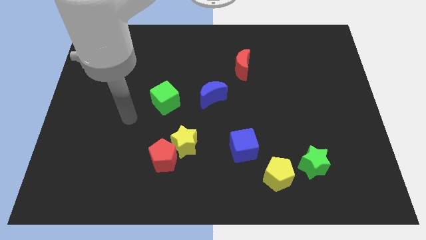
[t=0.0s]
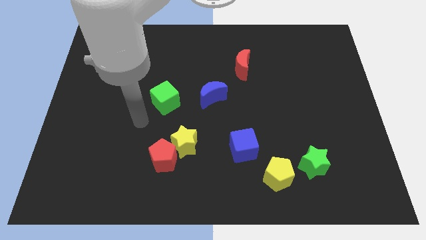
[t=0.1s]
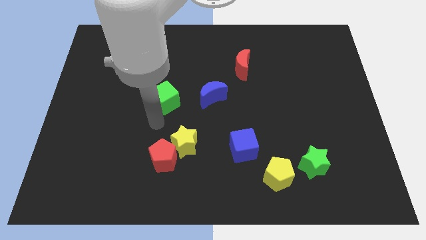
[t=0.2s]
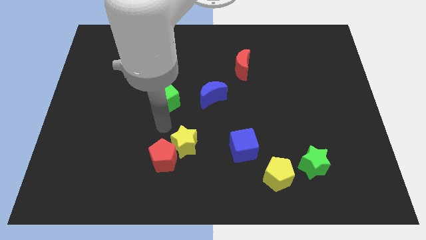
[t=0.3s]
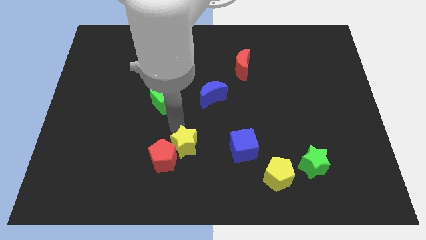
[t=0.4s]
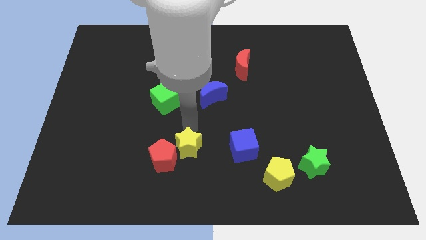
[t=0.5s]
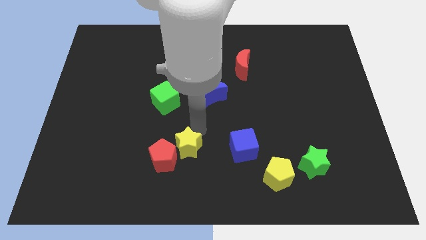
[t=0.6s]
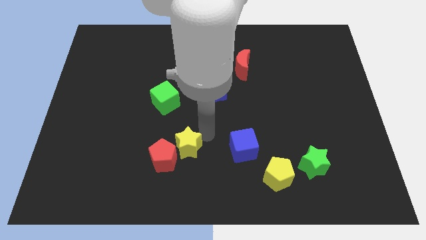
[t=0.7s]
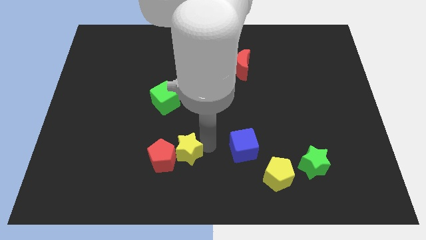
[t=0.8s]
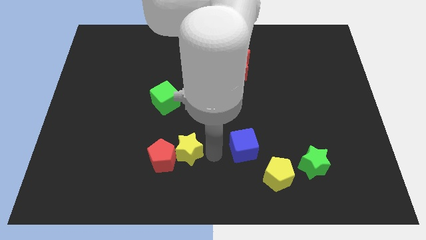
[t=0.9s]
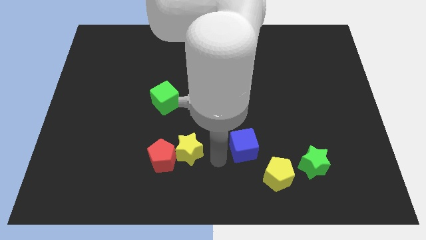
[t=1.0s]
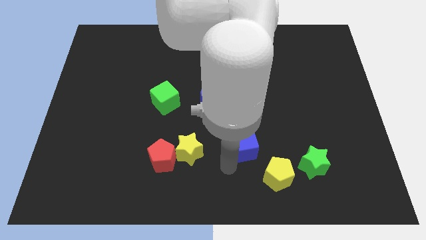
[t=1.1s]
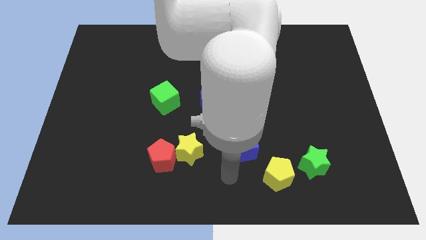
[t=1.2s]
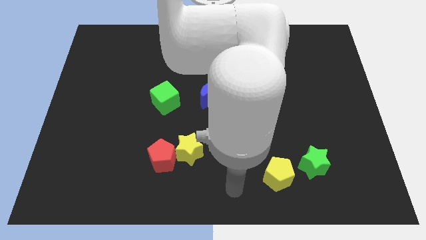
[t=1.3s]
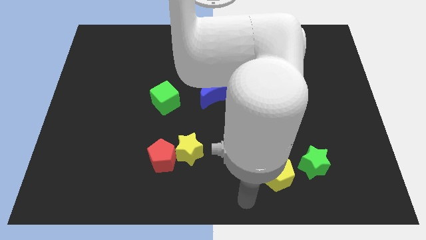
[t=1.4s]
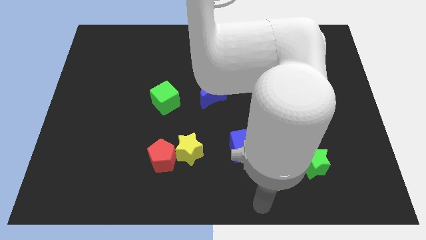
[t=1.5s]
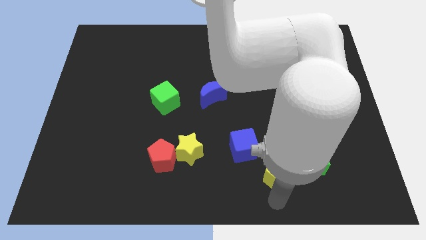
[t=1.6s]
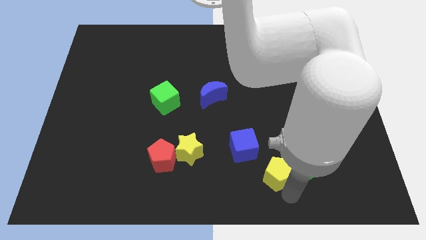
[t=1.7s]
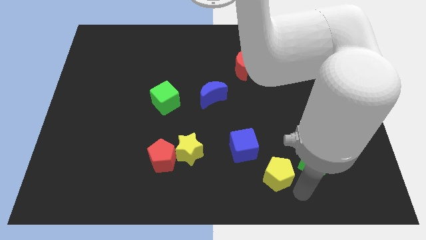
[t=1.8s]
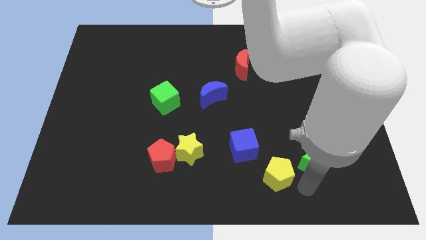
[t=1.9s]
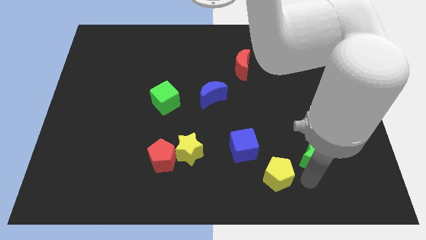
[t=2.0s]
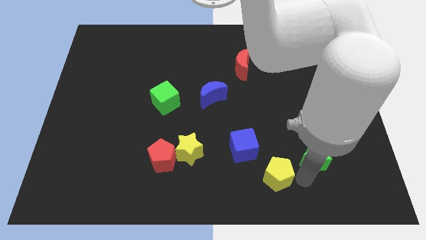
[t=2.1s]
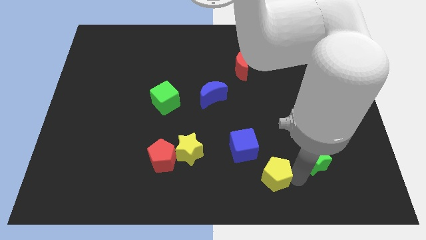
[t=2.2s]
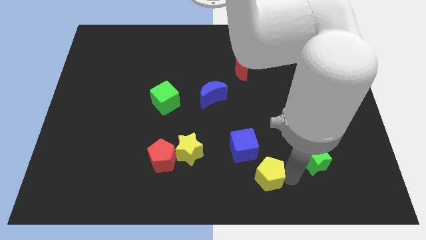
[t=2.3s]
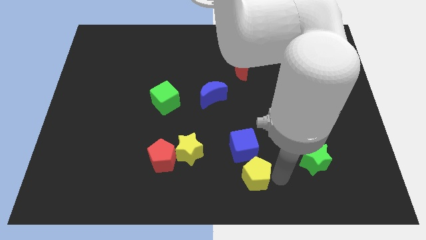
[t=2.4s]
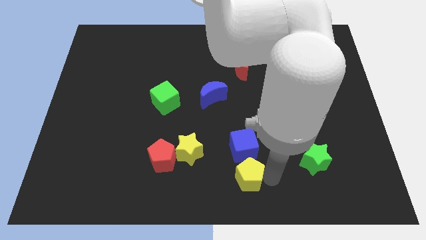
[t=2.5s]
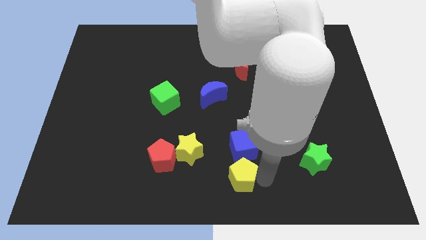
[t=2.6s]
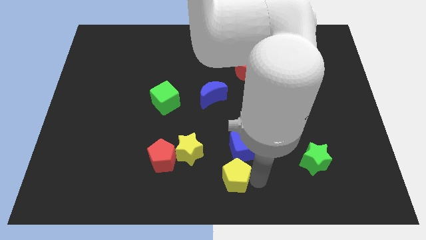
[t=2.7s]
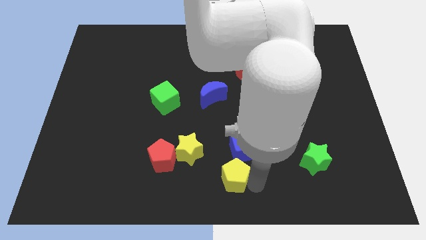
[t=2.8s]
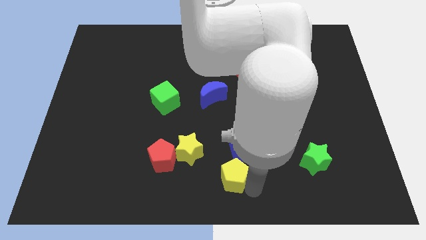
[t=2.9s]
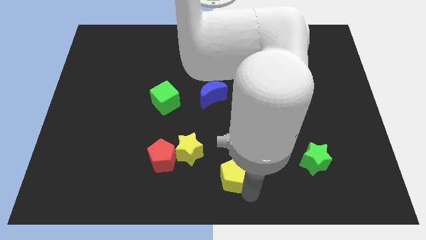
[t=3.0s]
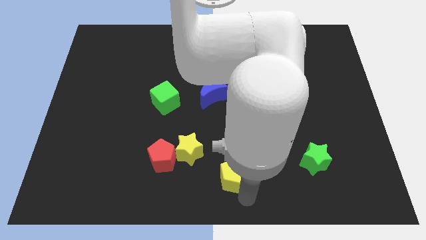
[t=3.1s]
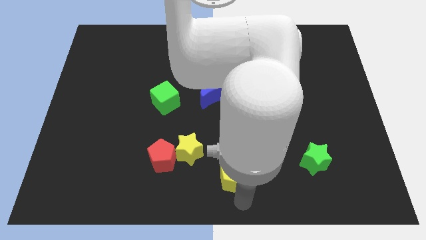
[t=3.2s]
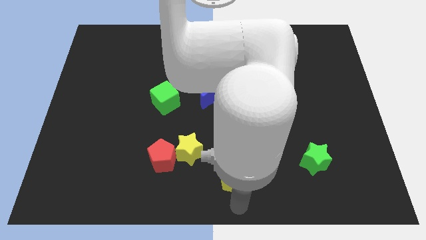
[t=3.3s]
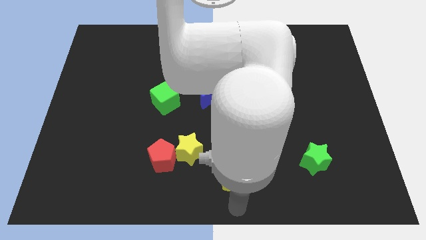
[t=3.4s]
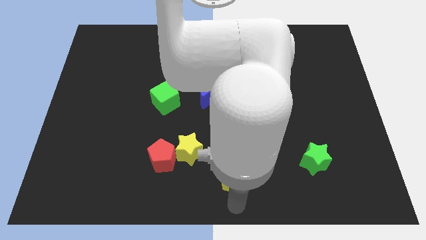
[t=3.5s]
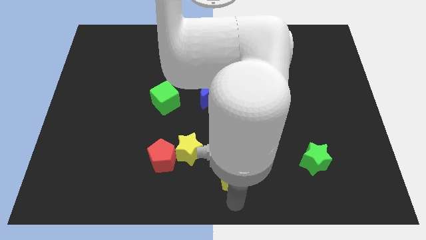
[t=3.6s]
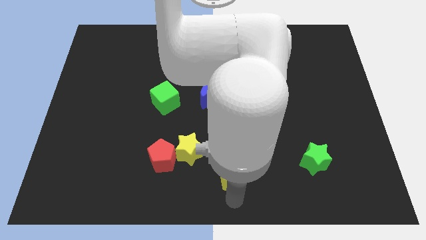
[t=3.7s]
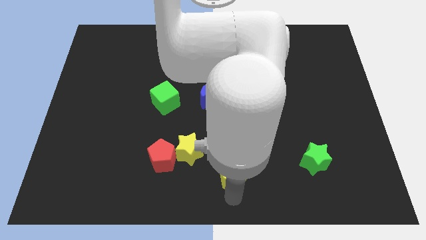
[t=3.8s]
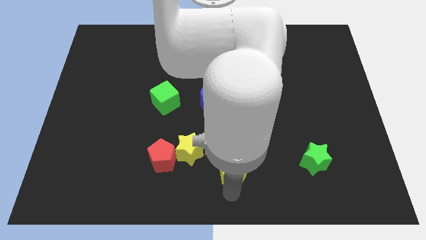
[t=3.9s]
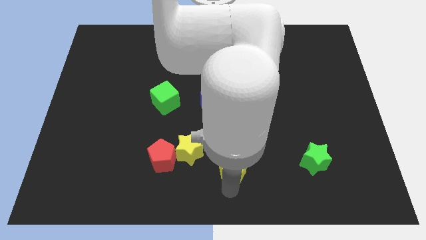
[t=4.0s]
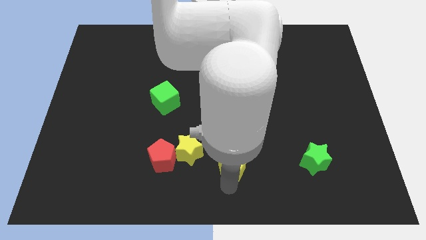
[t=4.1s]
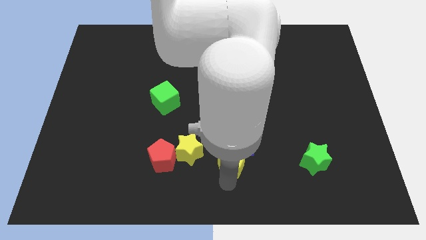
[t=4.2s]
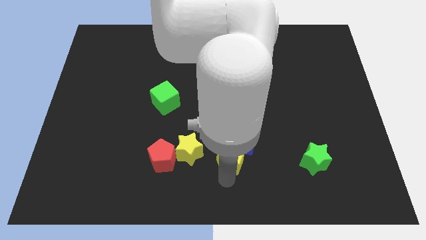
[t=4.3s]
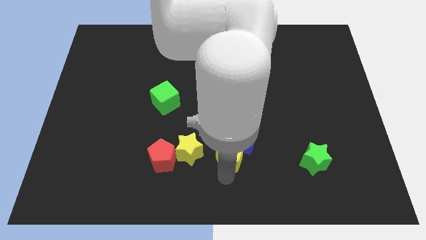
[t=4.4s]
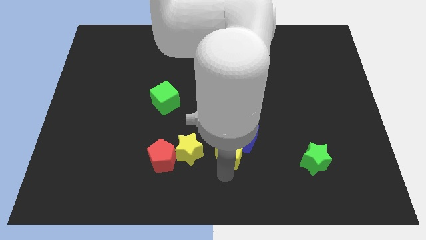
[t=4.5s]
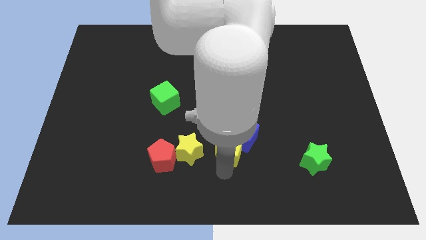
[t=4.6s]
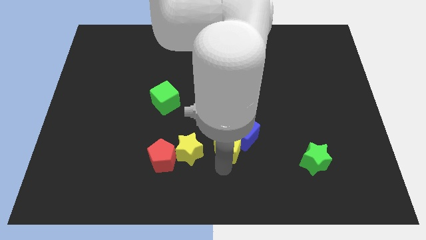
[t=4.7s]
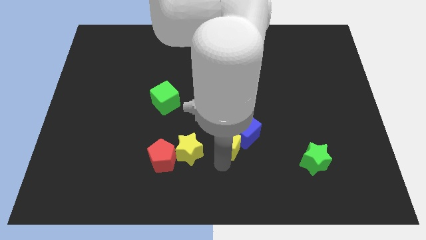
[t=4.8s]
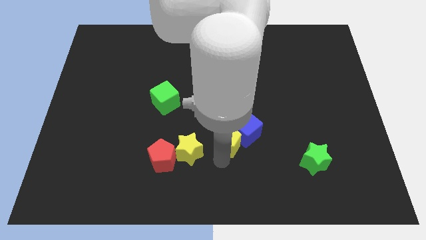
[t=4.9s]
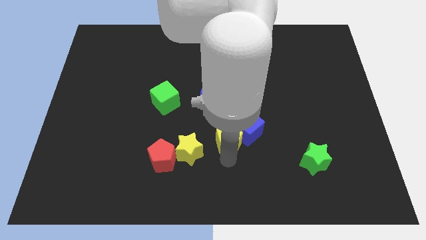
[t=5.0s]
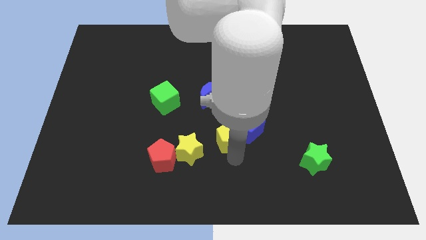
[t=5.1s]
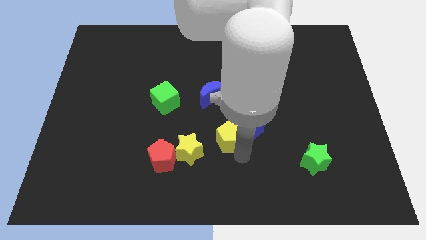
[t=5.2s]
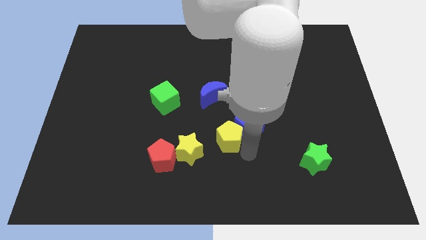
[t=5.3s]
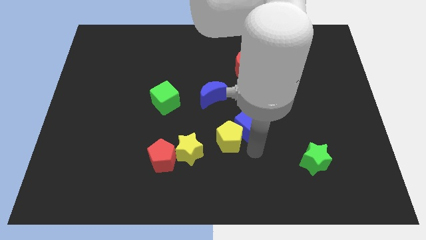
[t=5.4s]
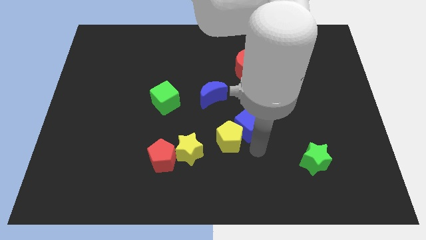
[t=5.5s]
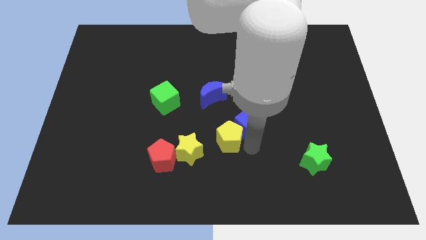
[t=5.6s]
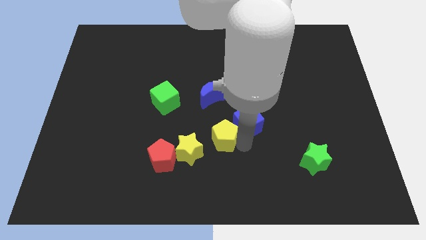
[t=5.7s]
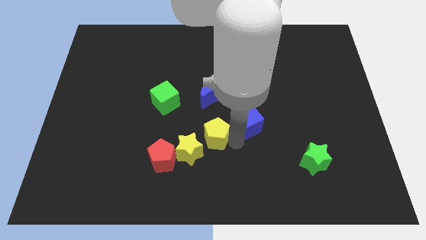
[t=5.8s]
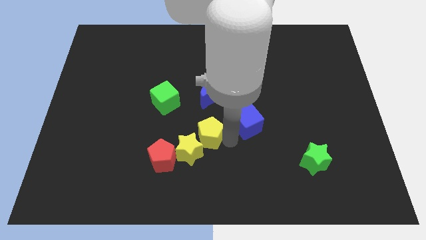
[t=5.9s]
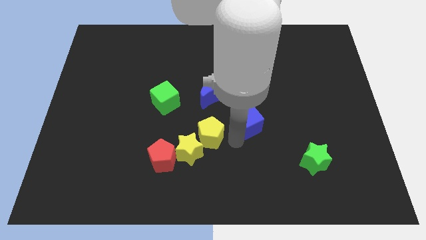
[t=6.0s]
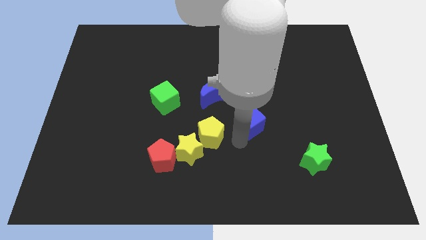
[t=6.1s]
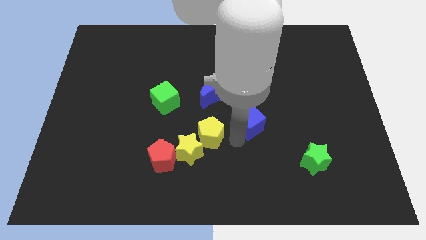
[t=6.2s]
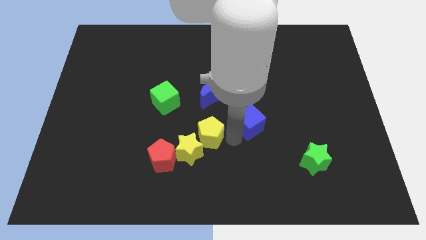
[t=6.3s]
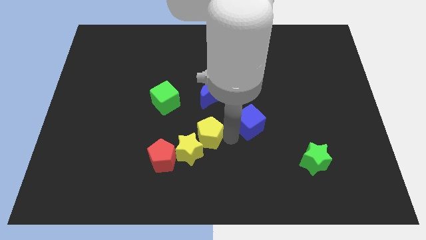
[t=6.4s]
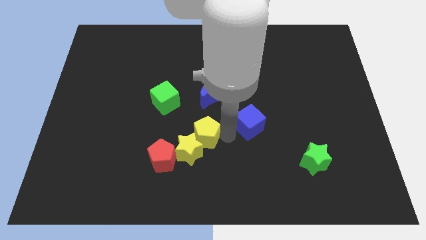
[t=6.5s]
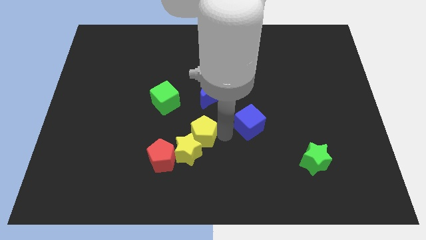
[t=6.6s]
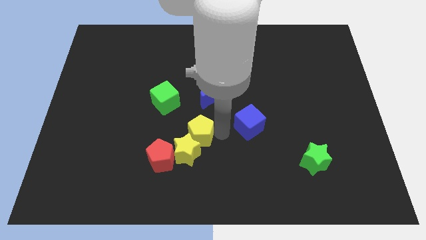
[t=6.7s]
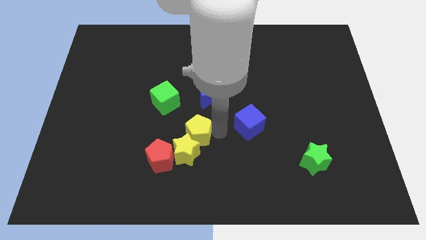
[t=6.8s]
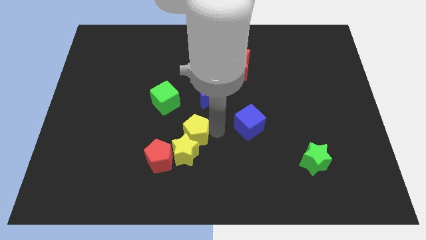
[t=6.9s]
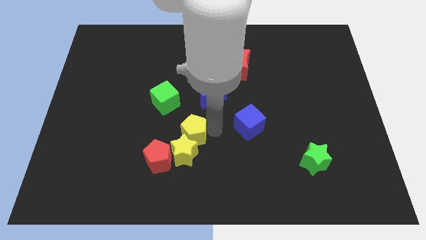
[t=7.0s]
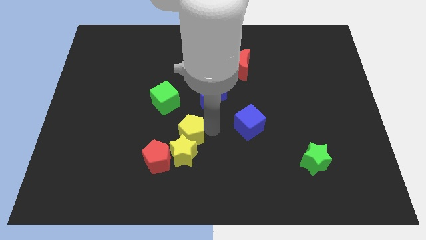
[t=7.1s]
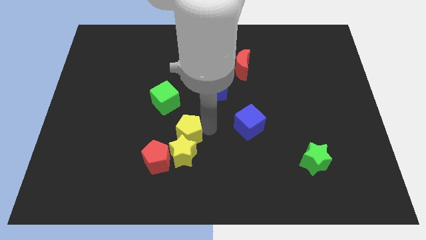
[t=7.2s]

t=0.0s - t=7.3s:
put the yellow pentagon to the top left side of the yellow star
